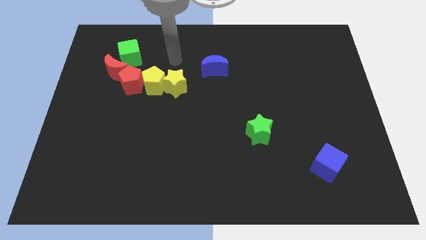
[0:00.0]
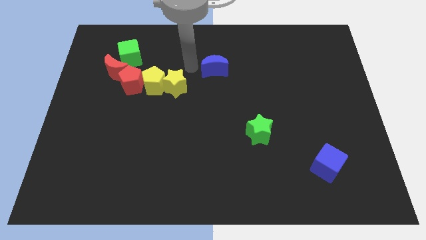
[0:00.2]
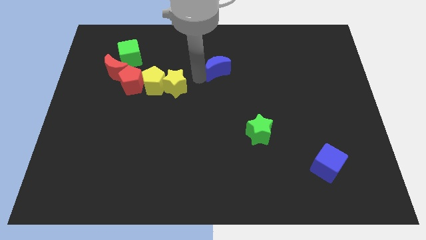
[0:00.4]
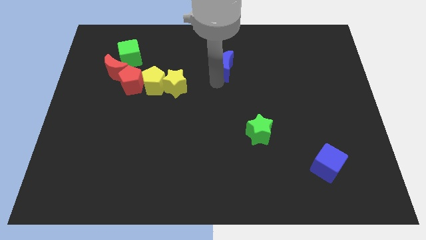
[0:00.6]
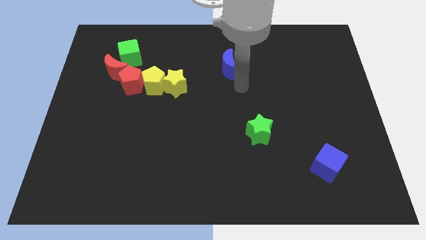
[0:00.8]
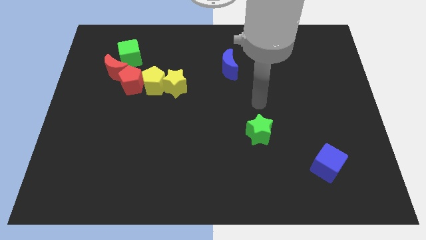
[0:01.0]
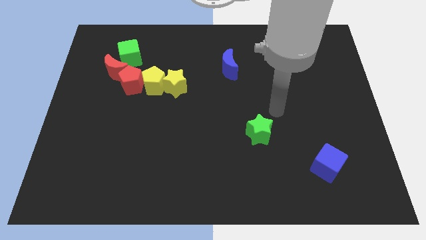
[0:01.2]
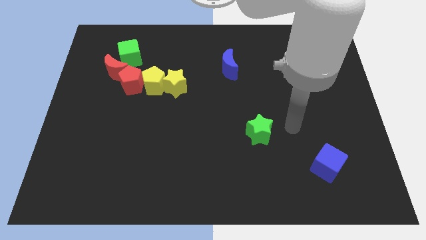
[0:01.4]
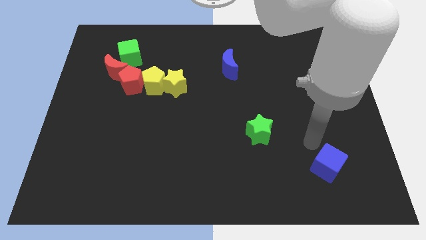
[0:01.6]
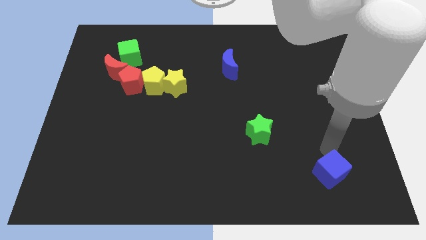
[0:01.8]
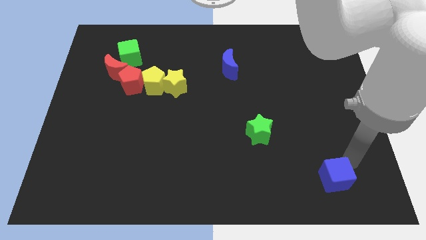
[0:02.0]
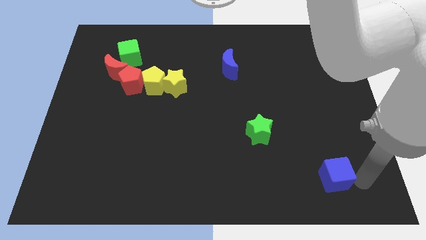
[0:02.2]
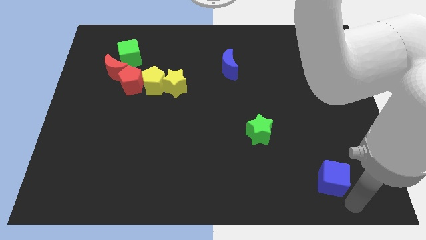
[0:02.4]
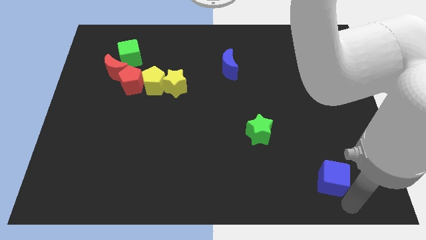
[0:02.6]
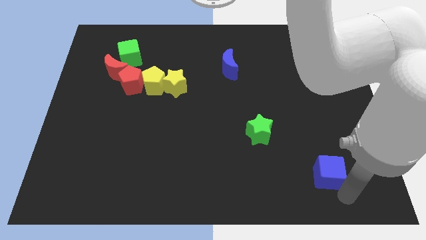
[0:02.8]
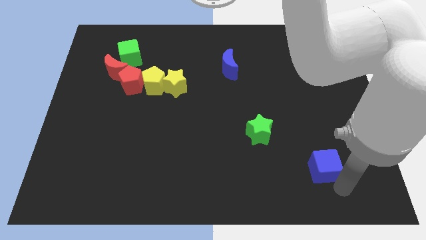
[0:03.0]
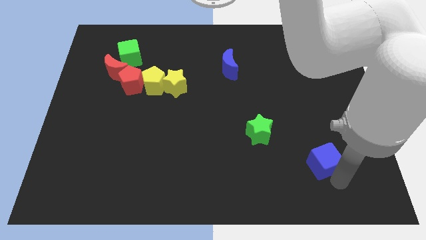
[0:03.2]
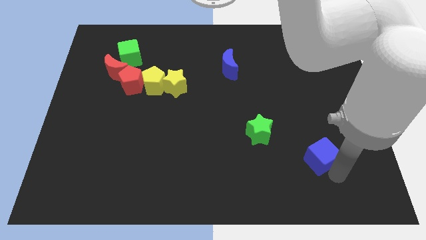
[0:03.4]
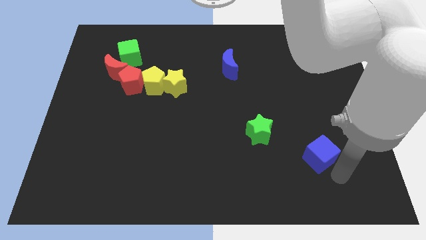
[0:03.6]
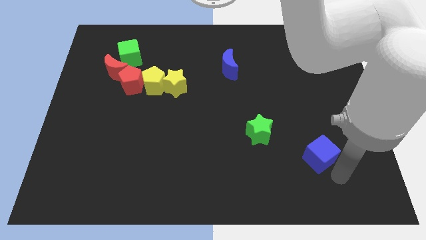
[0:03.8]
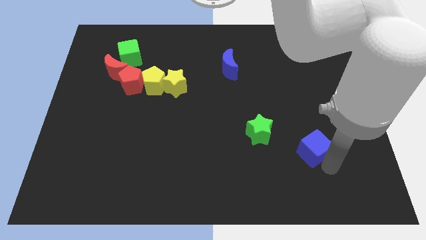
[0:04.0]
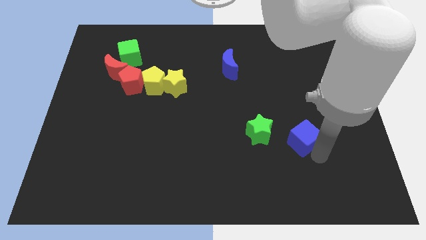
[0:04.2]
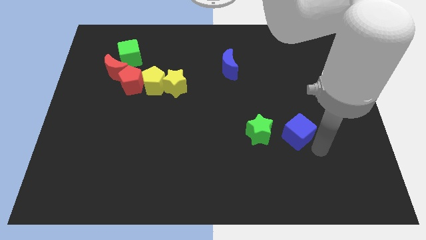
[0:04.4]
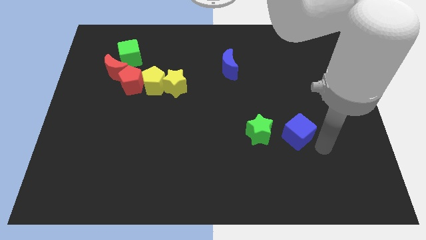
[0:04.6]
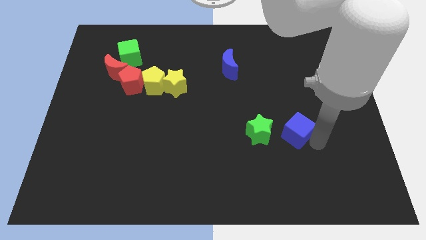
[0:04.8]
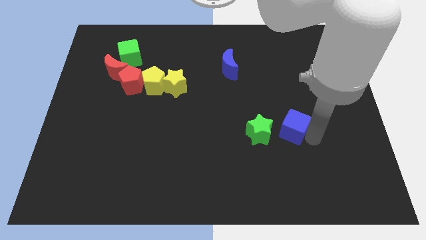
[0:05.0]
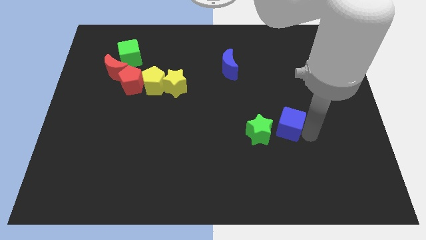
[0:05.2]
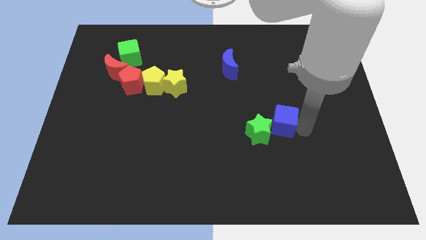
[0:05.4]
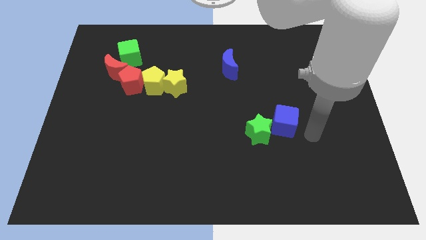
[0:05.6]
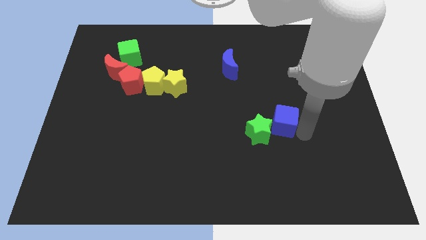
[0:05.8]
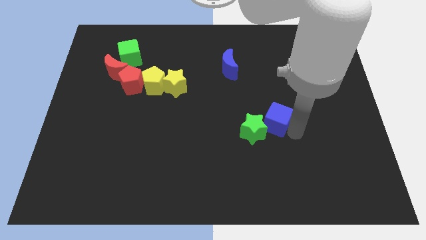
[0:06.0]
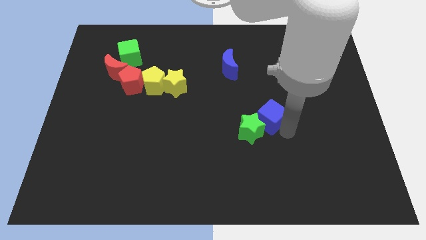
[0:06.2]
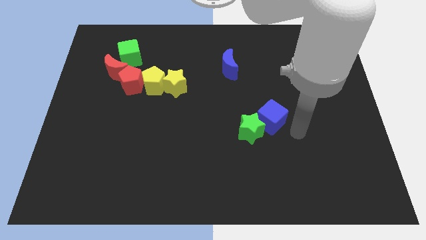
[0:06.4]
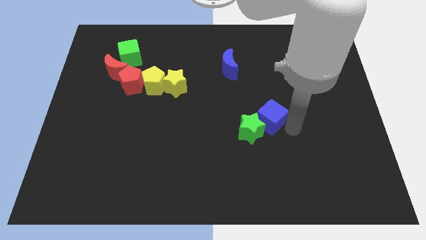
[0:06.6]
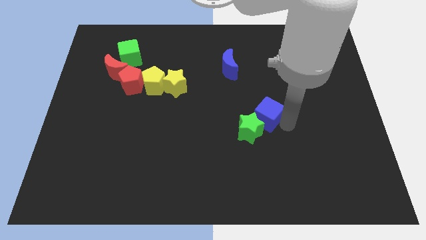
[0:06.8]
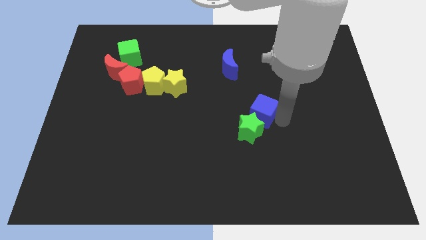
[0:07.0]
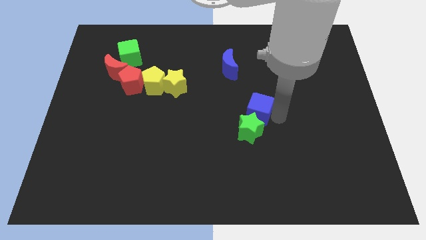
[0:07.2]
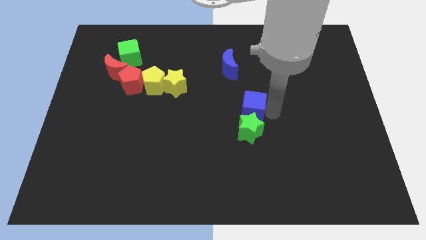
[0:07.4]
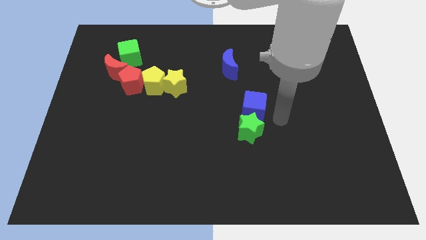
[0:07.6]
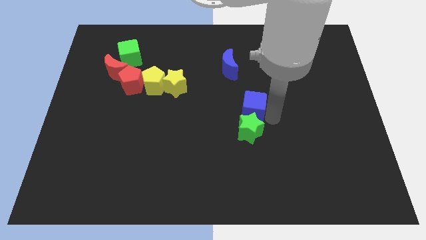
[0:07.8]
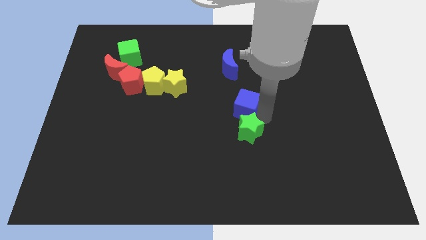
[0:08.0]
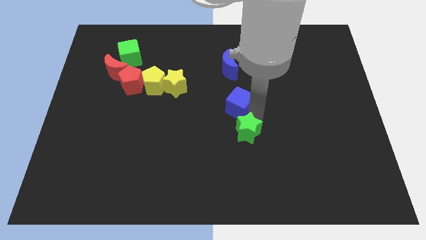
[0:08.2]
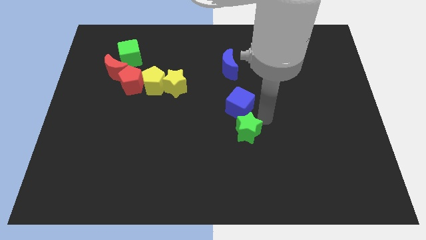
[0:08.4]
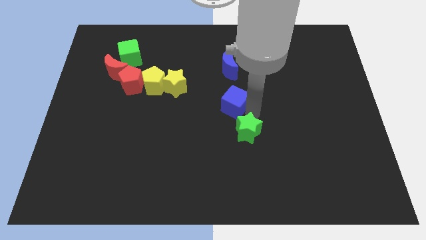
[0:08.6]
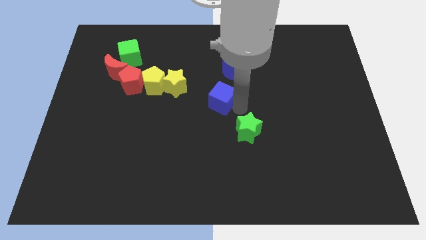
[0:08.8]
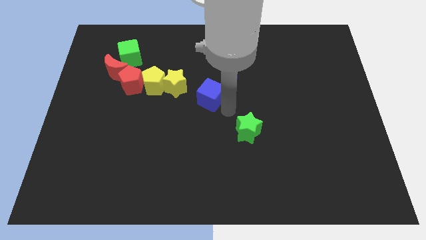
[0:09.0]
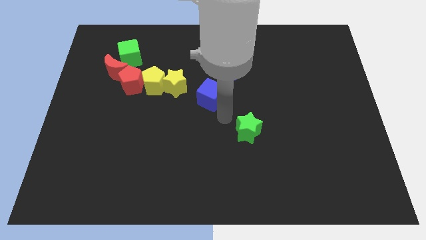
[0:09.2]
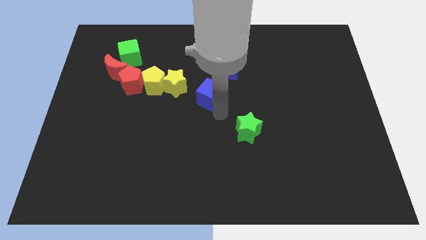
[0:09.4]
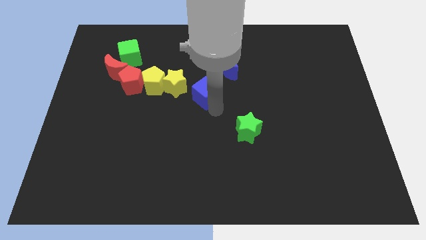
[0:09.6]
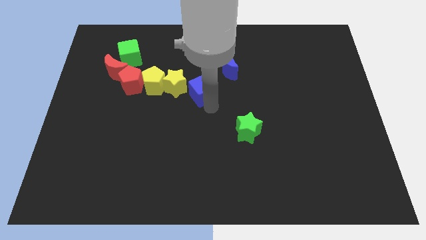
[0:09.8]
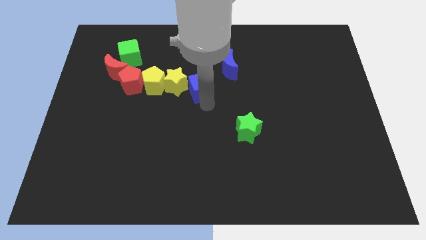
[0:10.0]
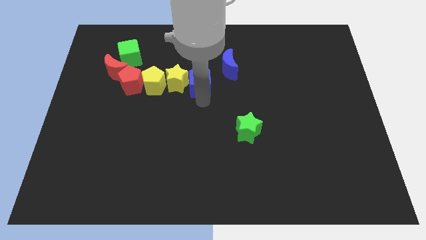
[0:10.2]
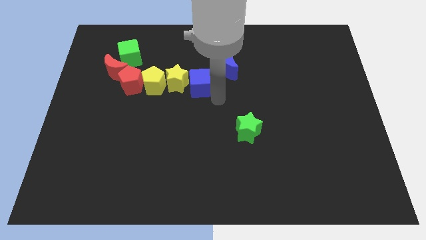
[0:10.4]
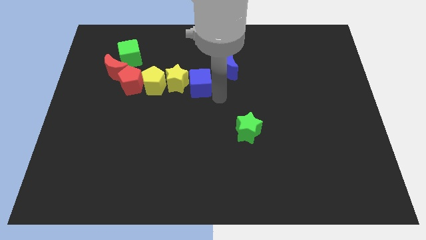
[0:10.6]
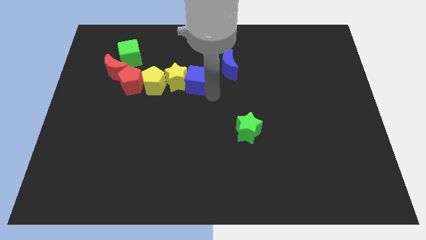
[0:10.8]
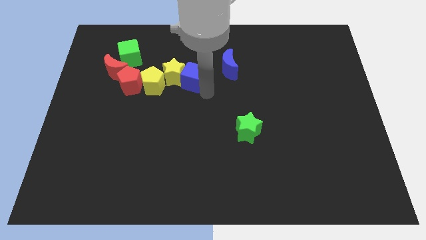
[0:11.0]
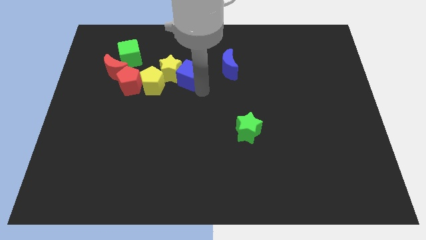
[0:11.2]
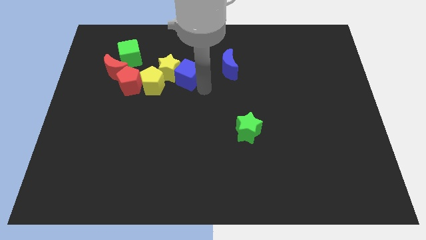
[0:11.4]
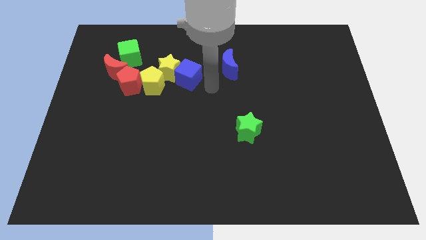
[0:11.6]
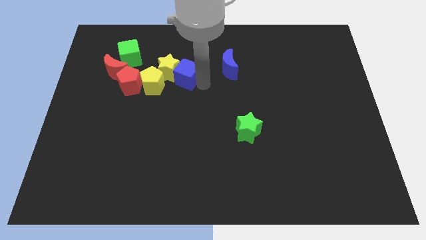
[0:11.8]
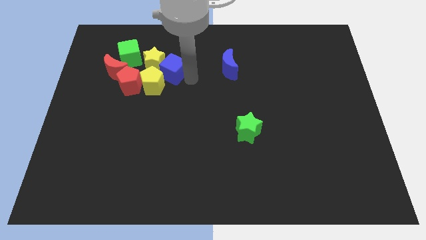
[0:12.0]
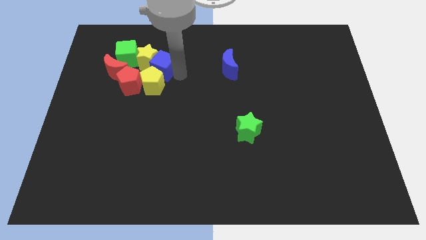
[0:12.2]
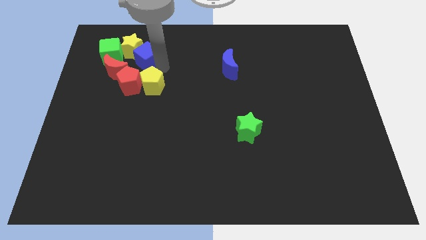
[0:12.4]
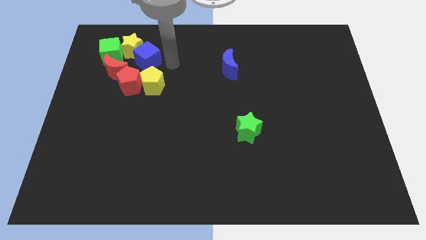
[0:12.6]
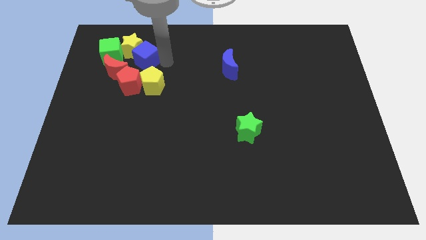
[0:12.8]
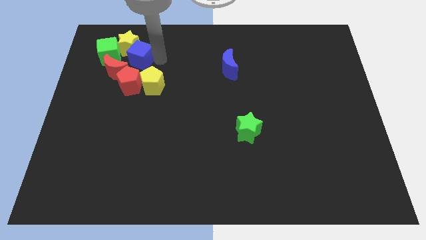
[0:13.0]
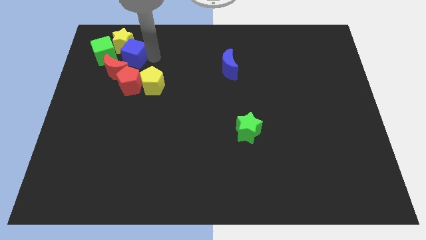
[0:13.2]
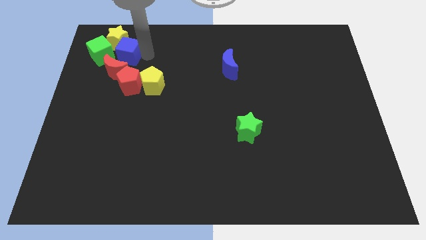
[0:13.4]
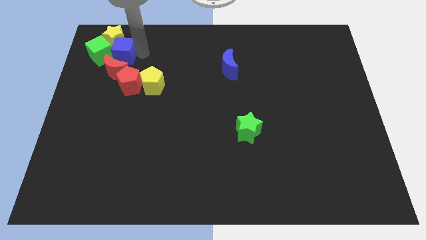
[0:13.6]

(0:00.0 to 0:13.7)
slide the blue cube close to the green cube

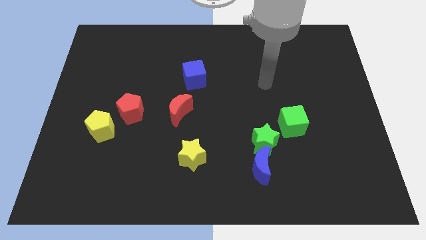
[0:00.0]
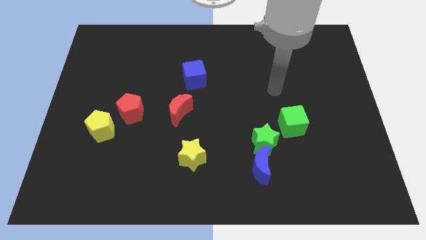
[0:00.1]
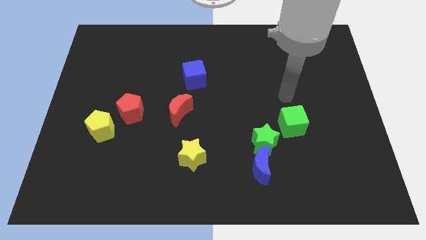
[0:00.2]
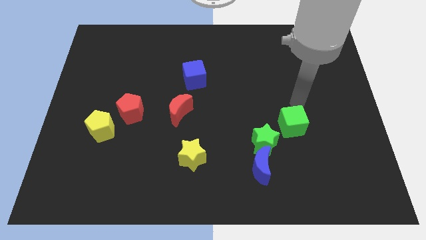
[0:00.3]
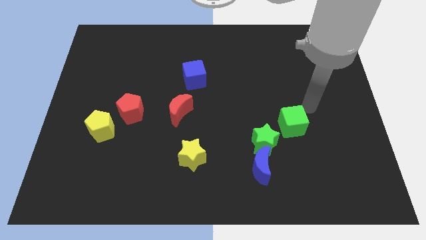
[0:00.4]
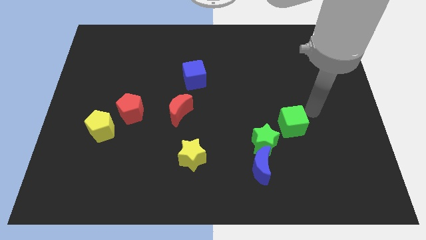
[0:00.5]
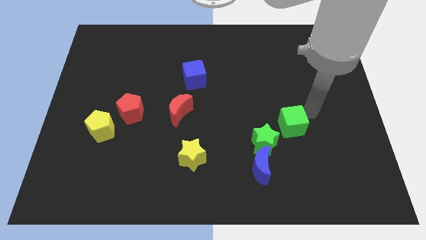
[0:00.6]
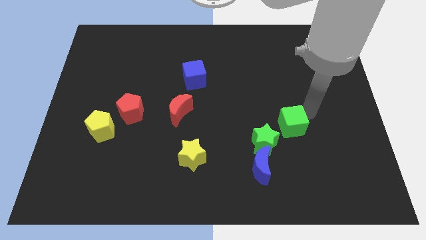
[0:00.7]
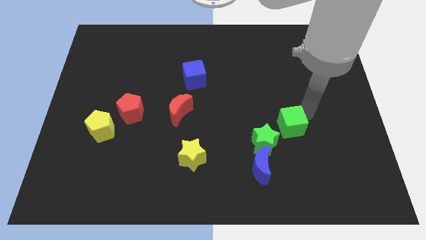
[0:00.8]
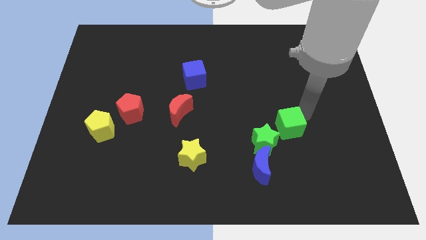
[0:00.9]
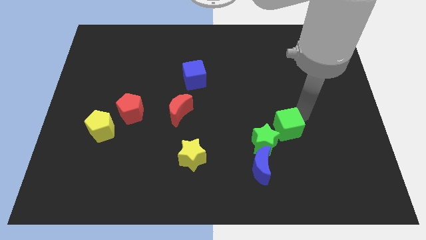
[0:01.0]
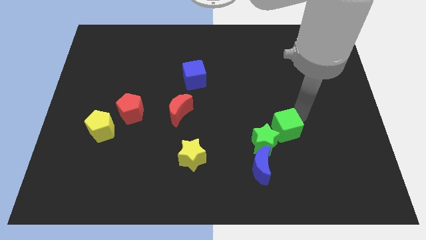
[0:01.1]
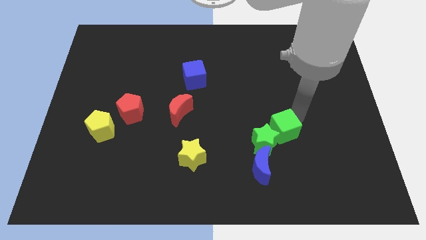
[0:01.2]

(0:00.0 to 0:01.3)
slide the green cube to the green star
